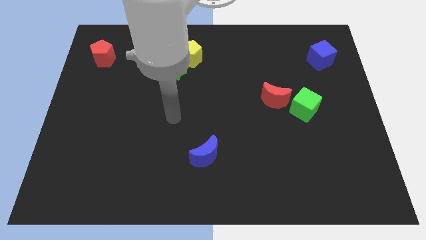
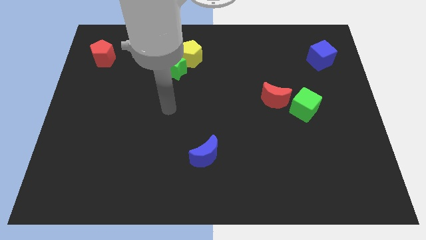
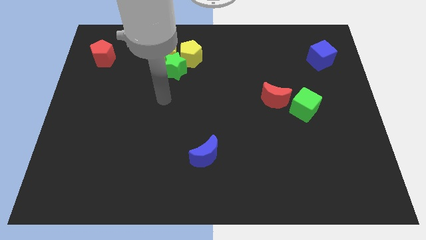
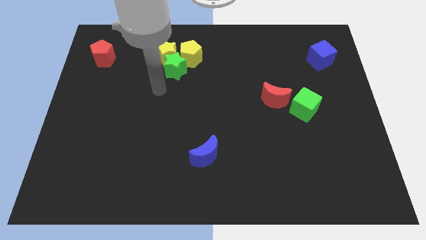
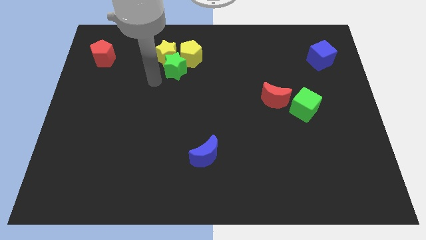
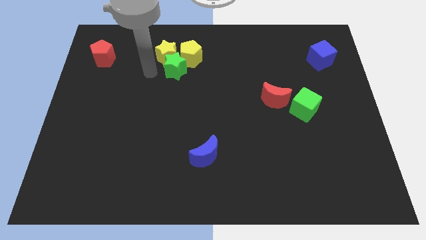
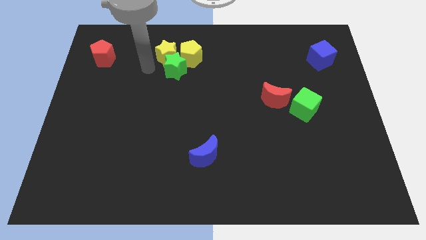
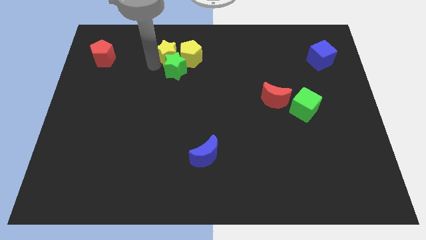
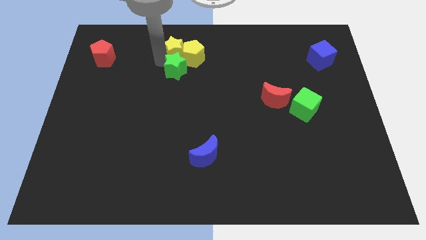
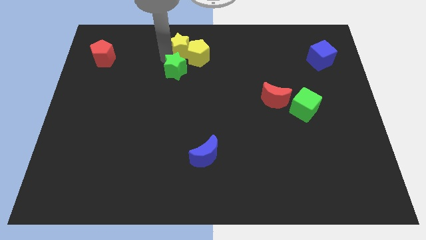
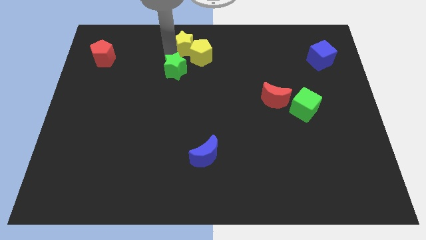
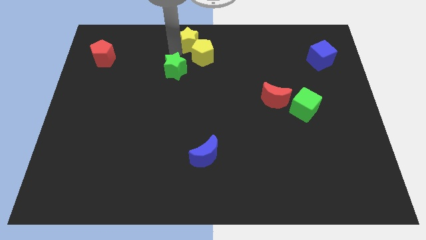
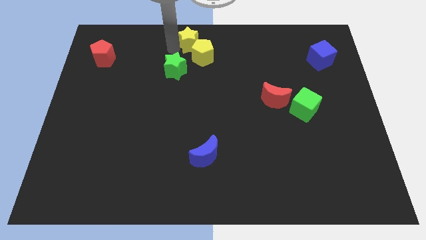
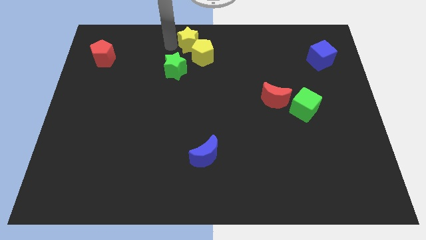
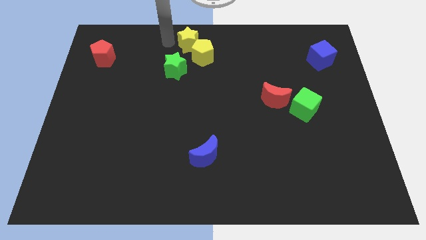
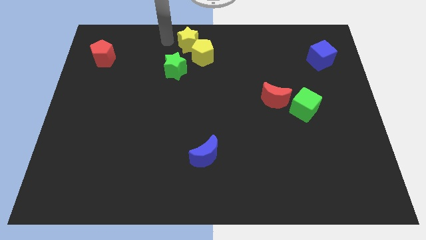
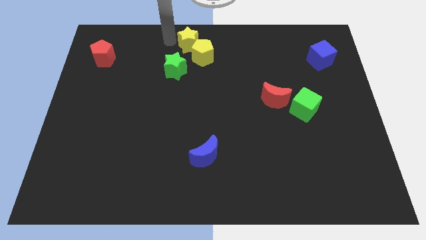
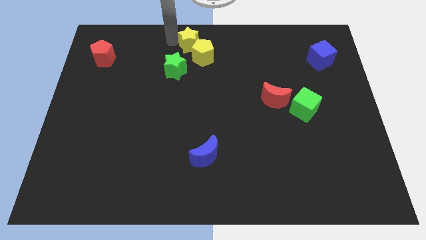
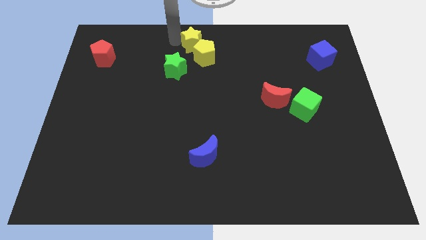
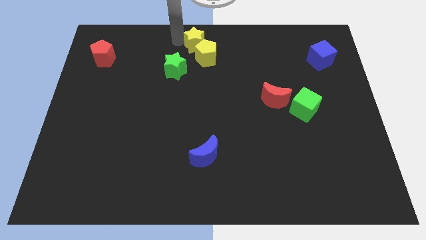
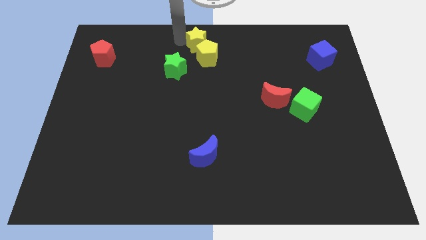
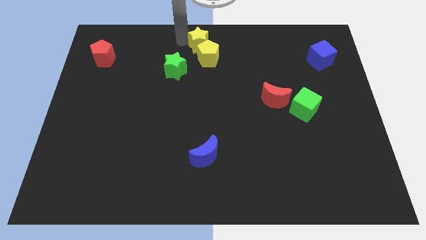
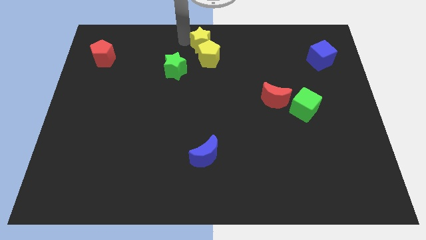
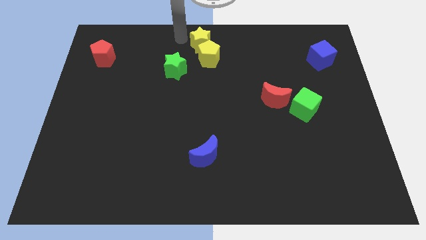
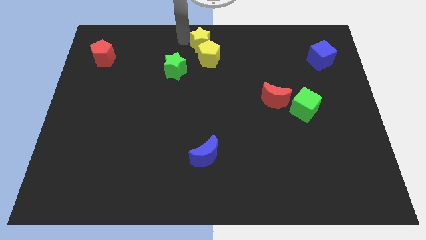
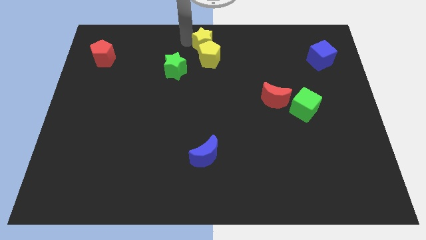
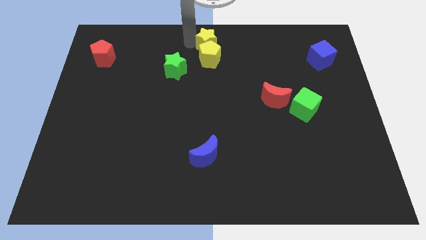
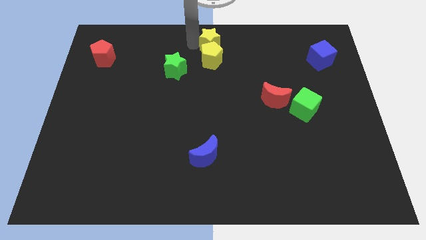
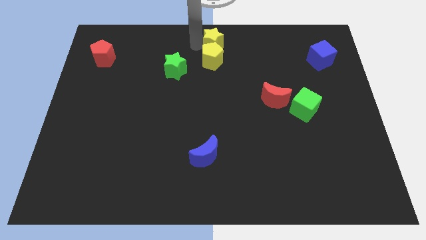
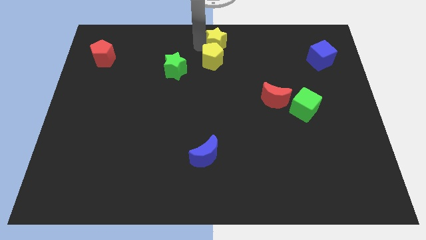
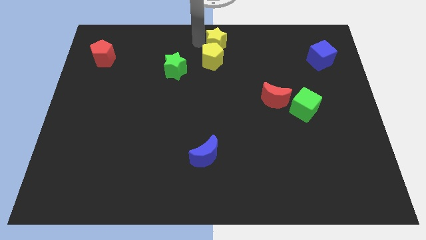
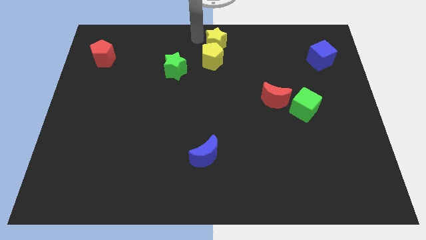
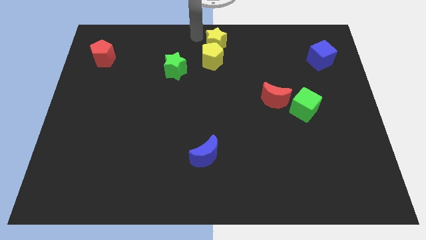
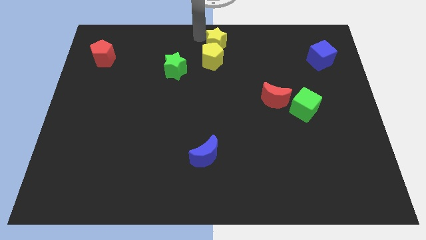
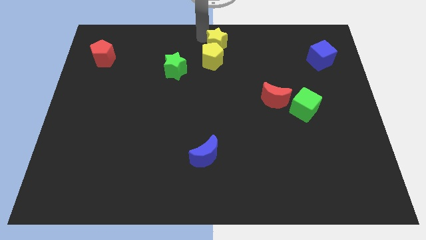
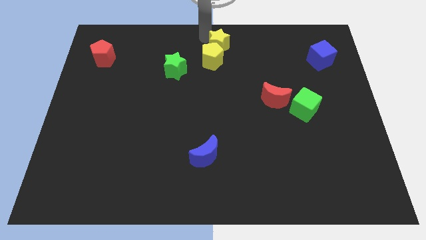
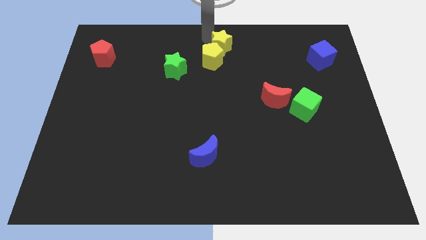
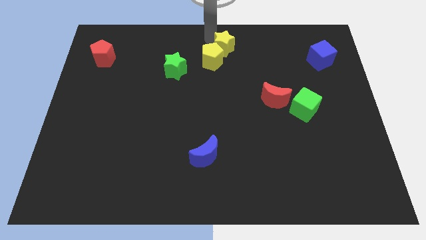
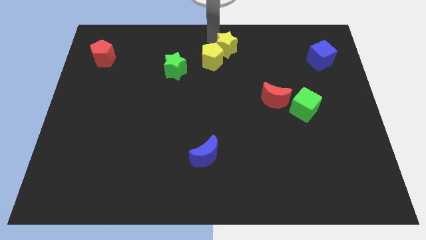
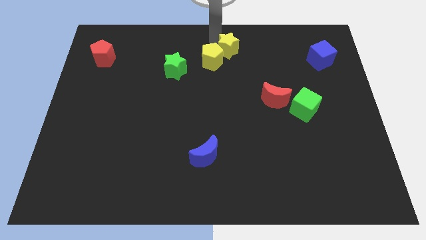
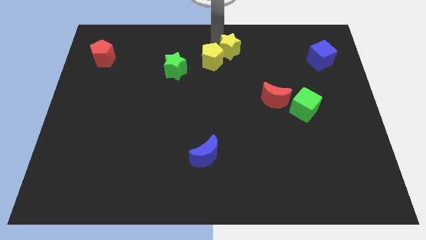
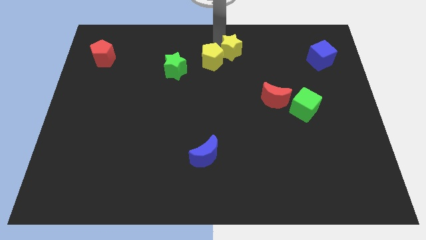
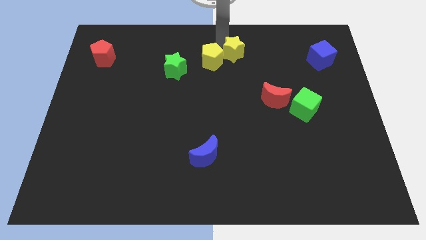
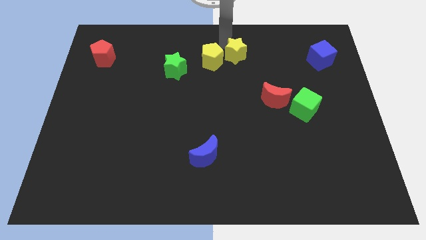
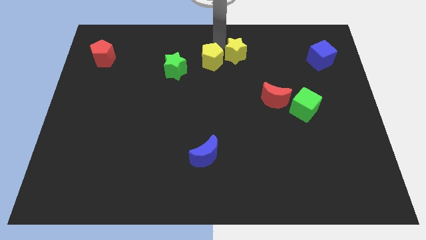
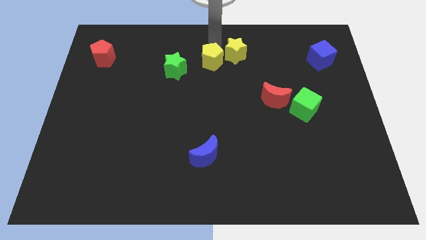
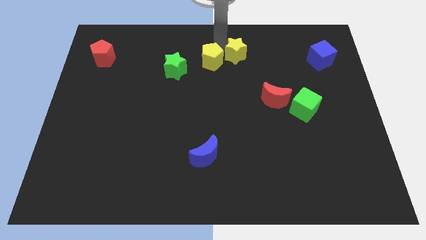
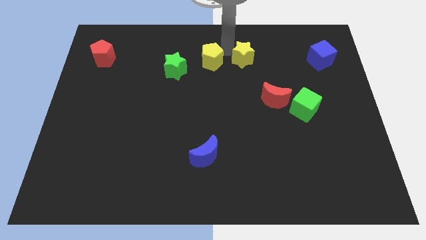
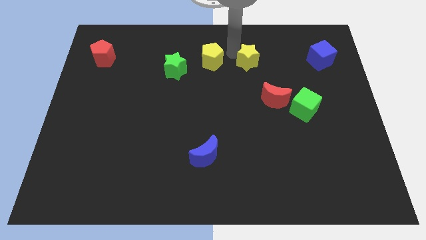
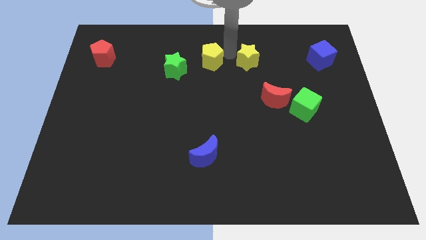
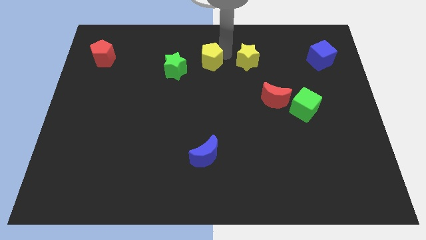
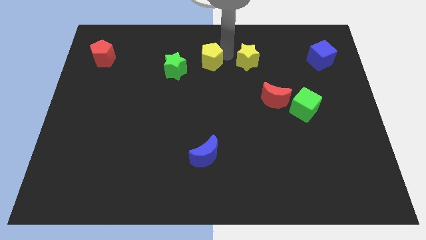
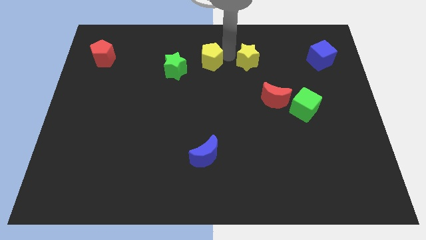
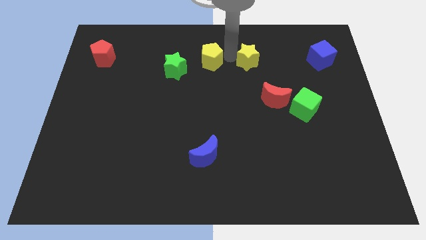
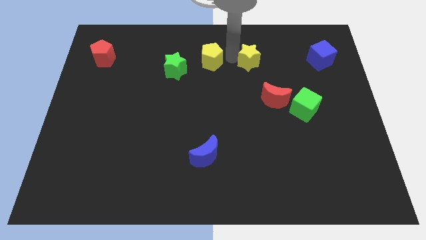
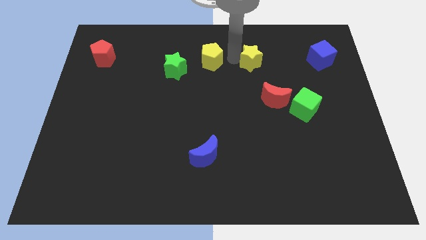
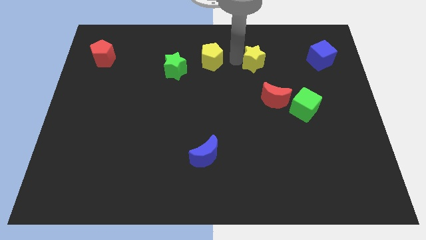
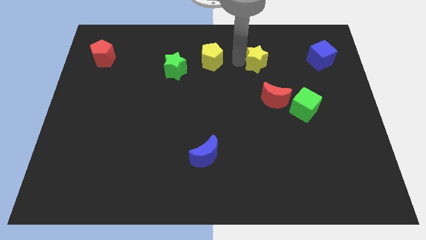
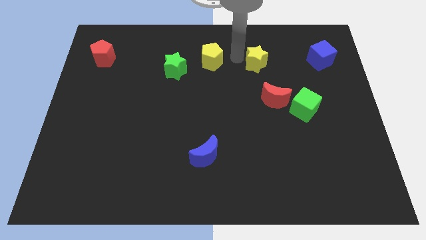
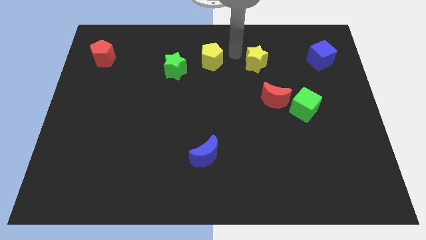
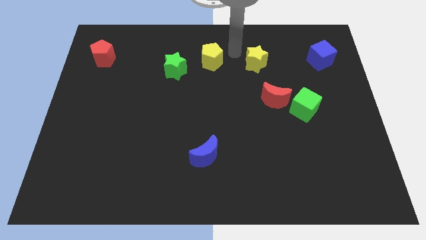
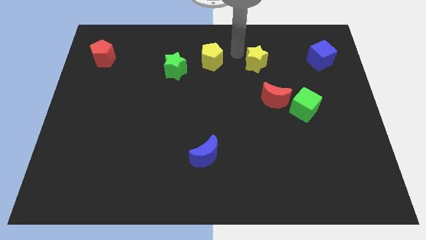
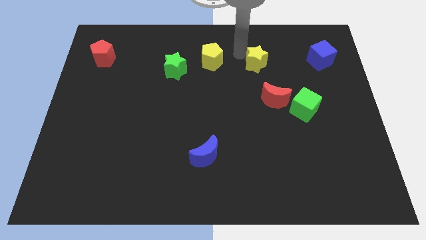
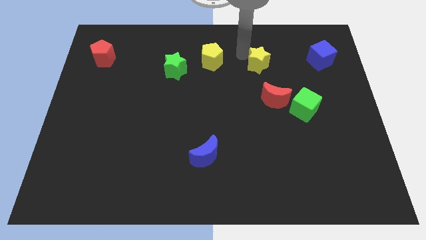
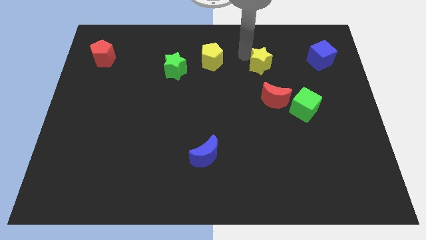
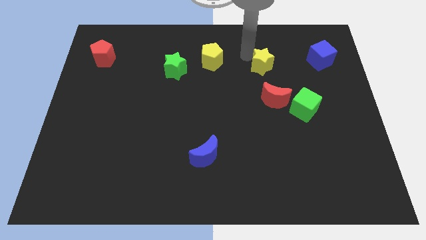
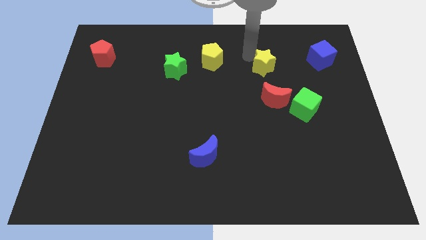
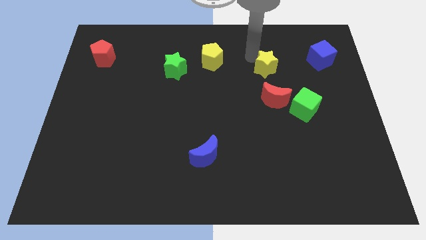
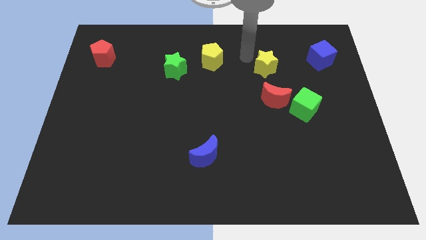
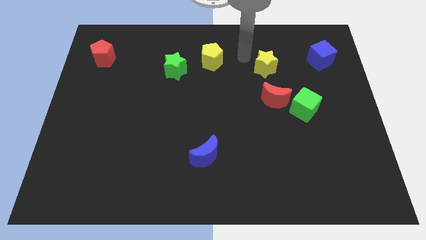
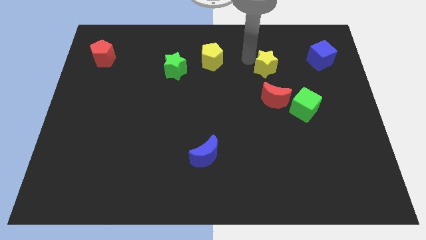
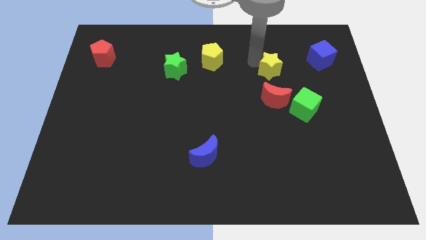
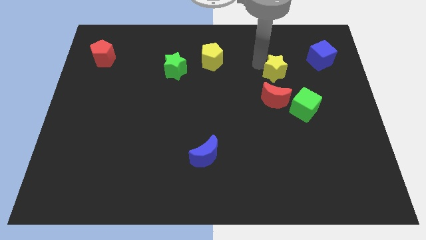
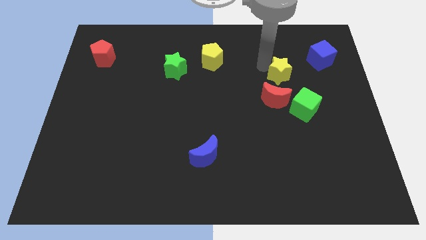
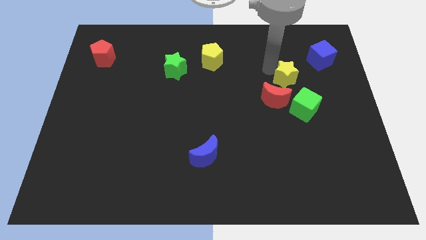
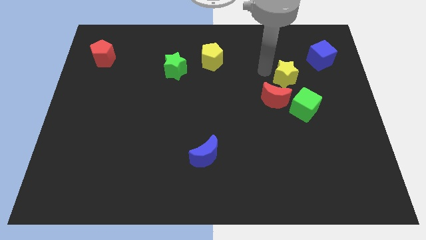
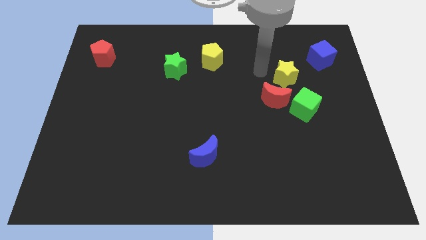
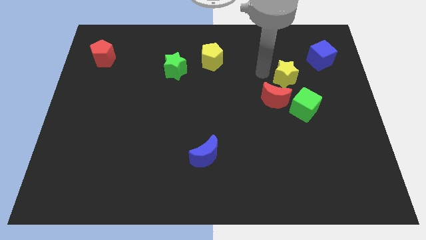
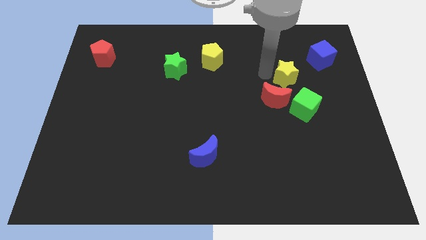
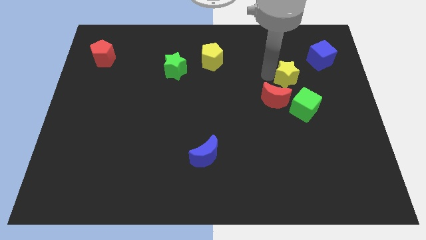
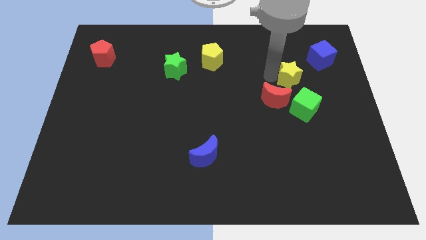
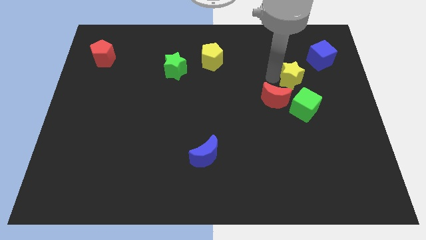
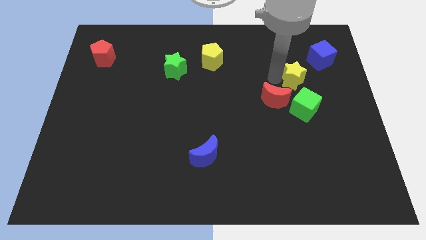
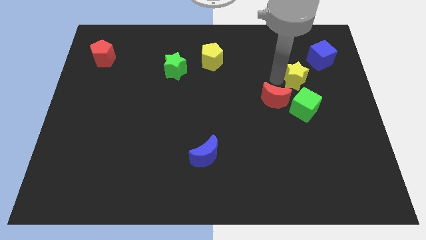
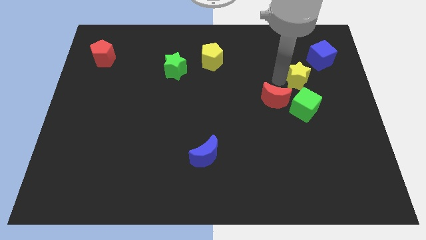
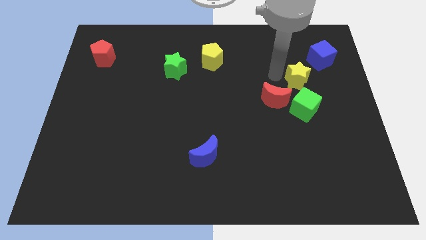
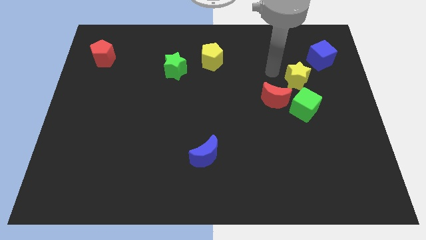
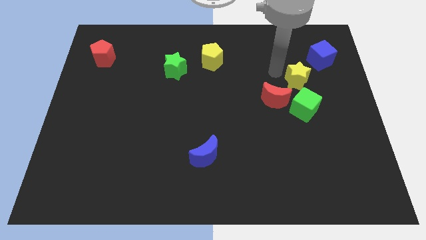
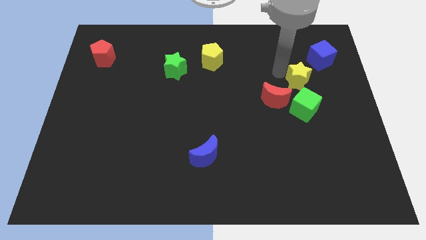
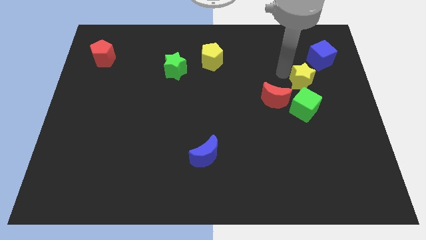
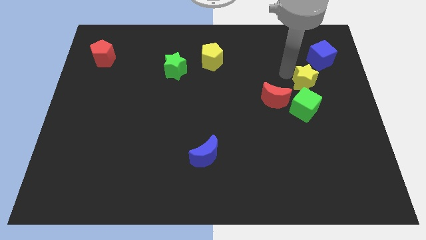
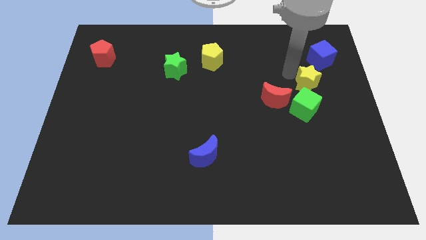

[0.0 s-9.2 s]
push the yellow star to the bottom side of the blue cube
